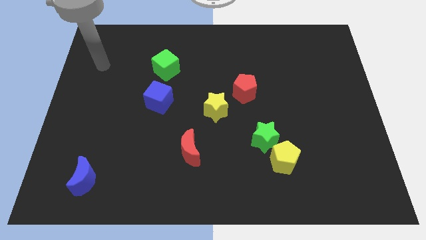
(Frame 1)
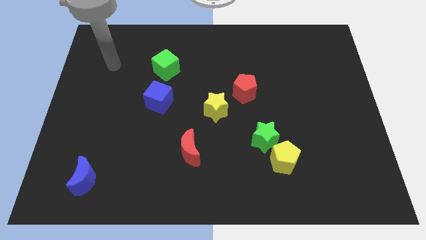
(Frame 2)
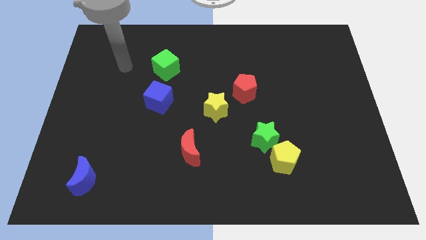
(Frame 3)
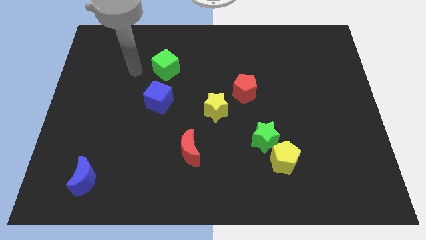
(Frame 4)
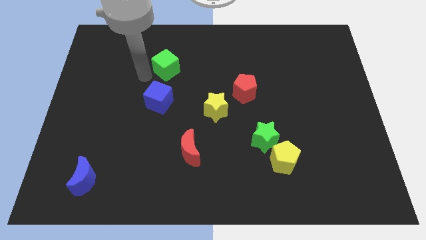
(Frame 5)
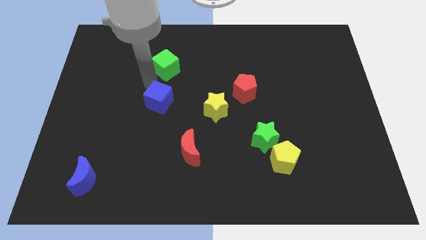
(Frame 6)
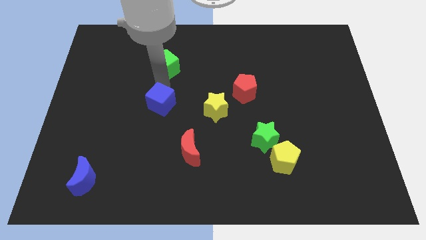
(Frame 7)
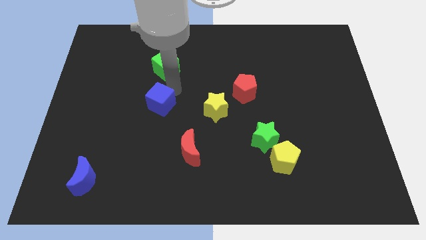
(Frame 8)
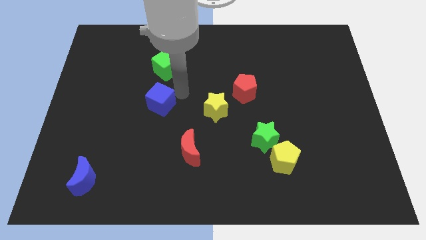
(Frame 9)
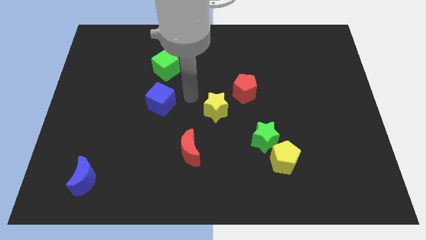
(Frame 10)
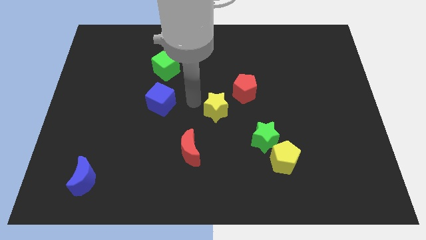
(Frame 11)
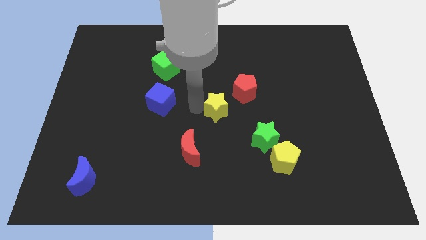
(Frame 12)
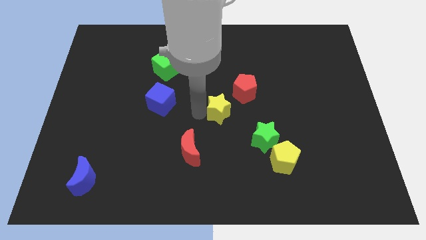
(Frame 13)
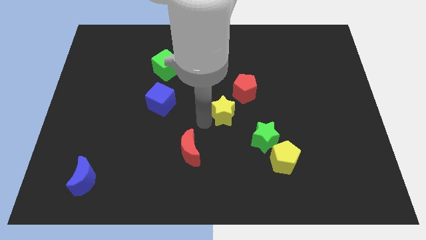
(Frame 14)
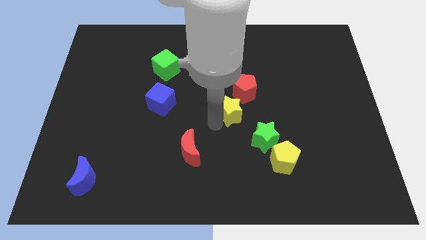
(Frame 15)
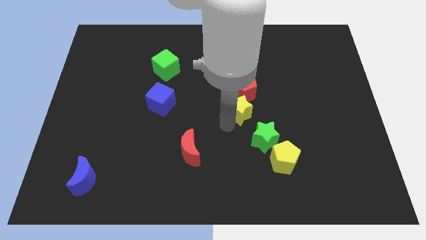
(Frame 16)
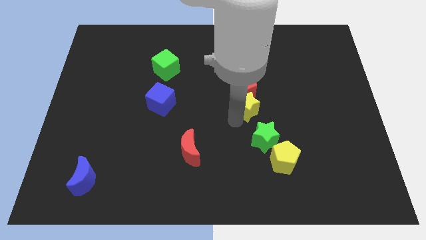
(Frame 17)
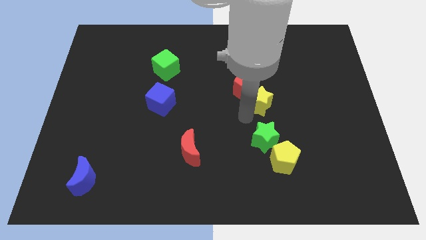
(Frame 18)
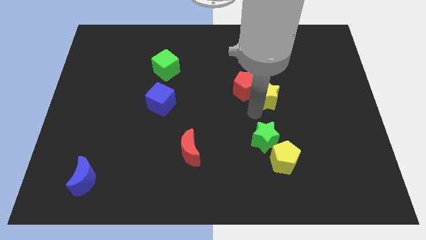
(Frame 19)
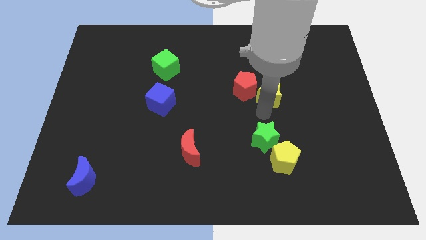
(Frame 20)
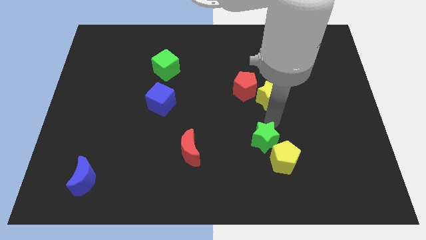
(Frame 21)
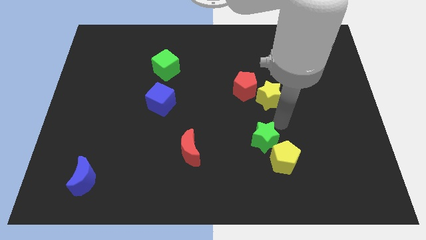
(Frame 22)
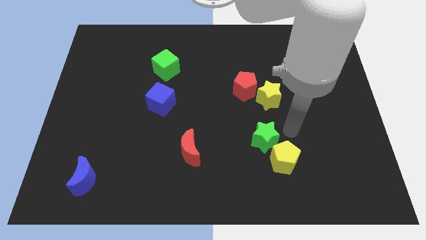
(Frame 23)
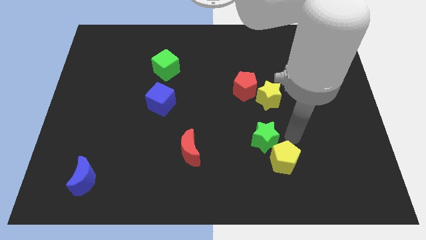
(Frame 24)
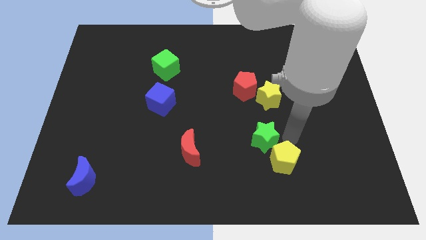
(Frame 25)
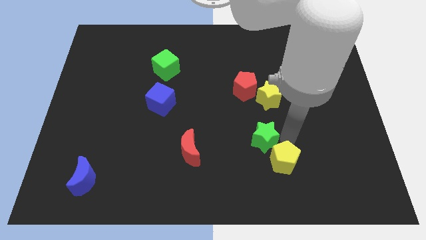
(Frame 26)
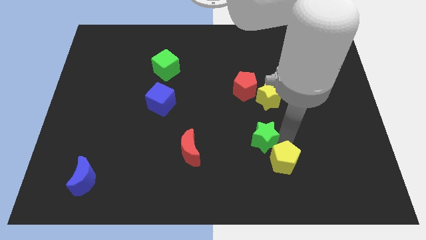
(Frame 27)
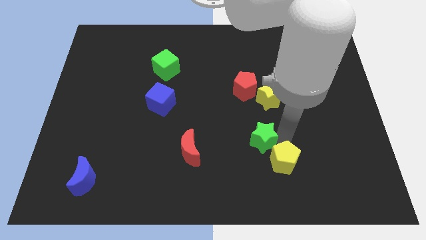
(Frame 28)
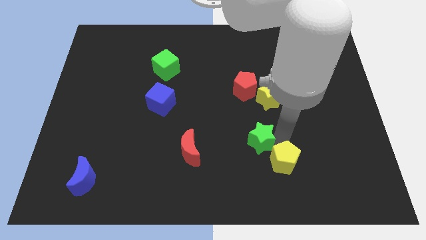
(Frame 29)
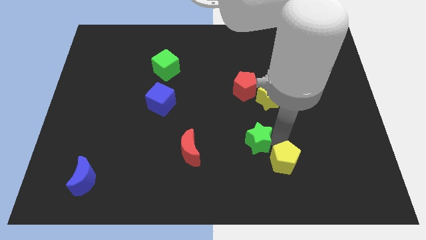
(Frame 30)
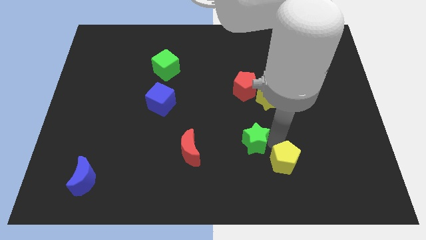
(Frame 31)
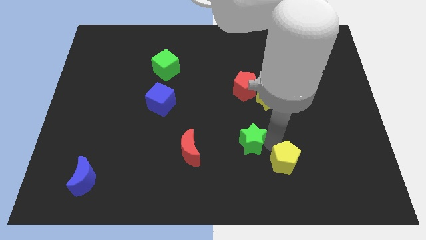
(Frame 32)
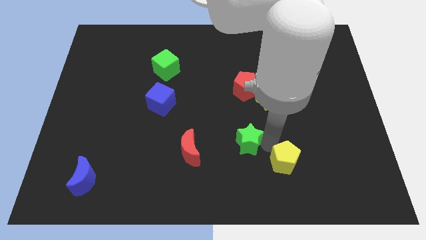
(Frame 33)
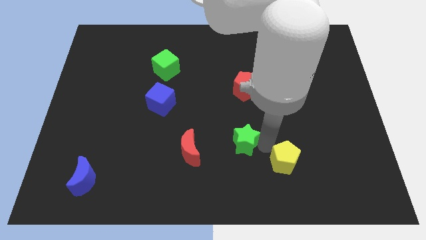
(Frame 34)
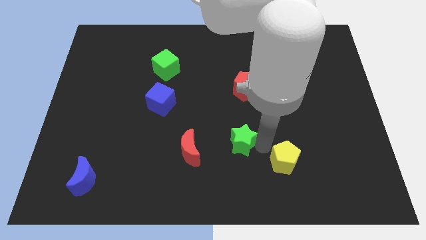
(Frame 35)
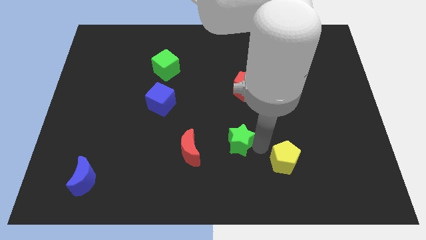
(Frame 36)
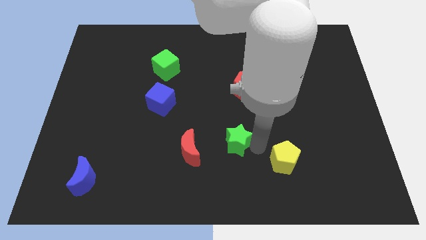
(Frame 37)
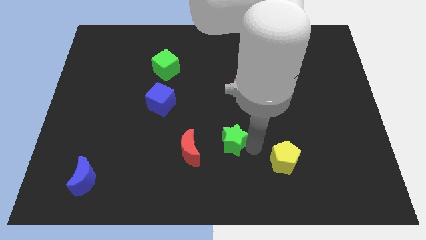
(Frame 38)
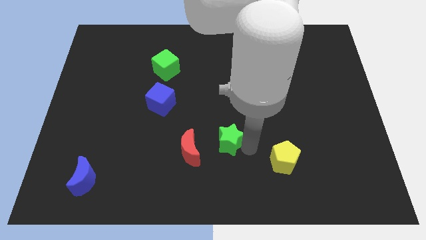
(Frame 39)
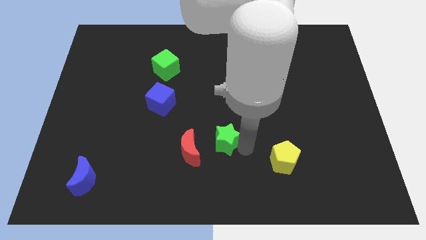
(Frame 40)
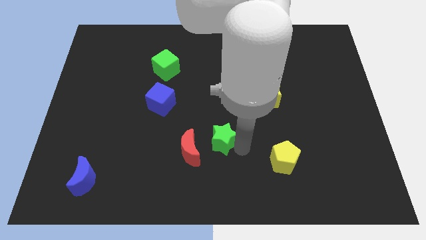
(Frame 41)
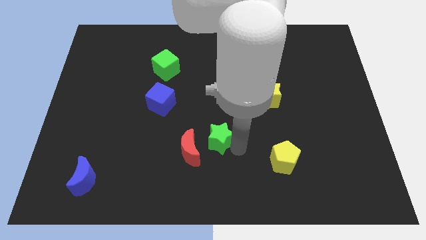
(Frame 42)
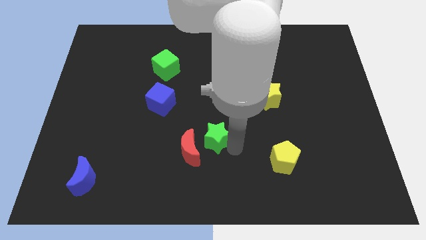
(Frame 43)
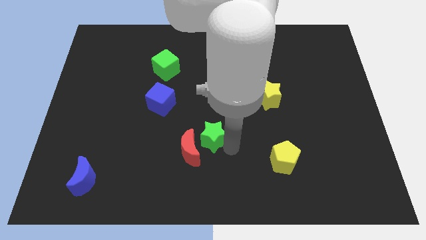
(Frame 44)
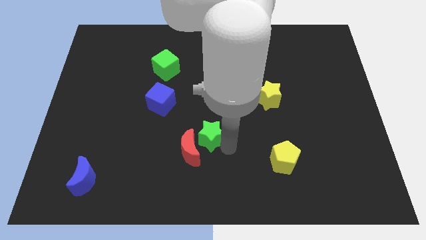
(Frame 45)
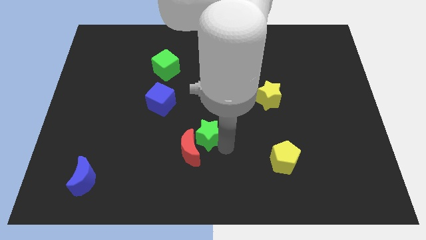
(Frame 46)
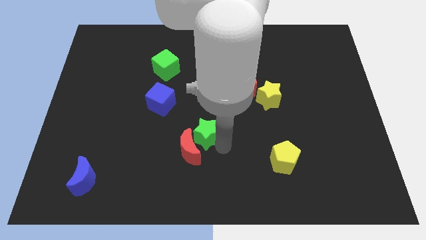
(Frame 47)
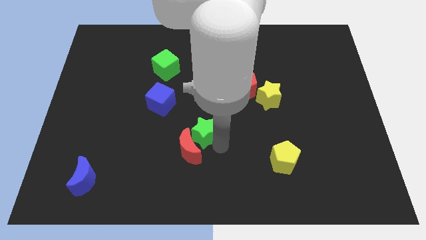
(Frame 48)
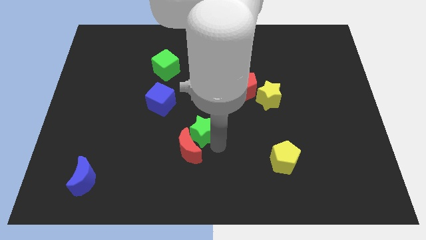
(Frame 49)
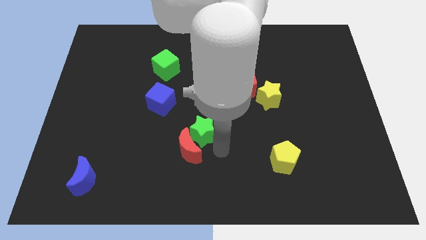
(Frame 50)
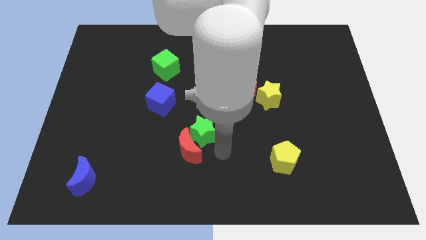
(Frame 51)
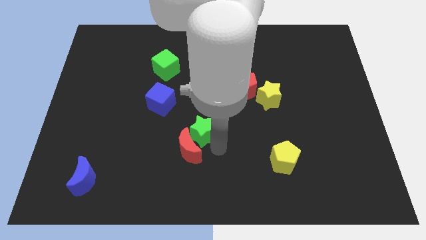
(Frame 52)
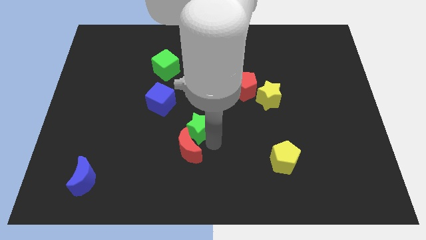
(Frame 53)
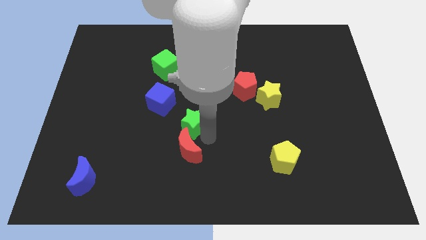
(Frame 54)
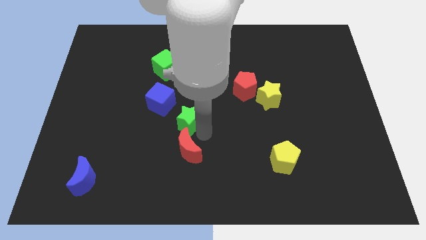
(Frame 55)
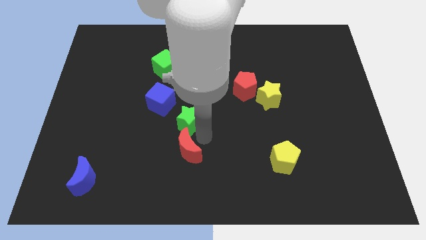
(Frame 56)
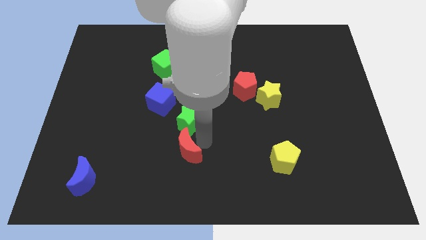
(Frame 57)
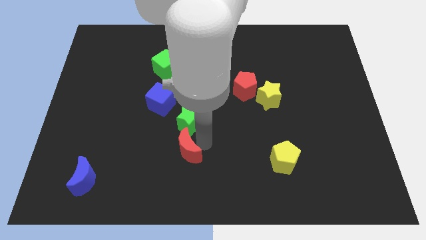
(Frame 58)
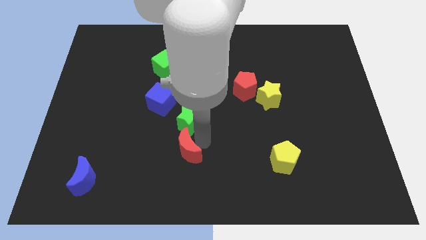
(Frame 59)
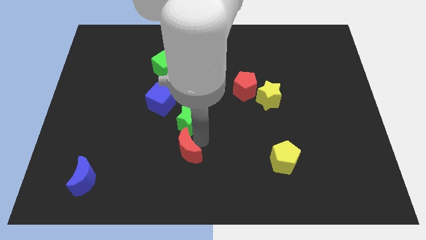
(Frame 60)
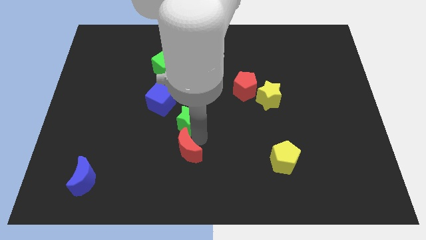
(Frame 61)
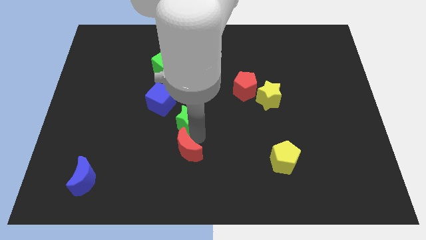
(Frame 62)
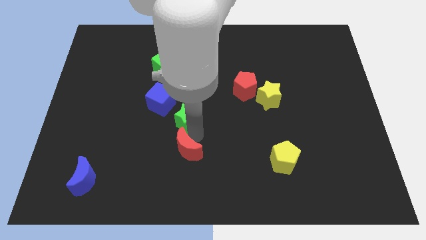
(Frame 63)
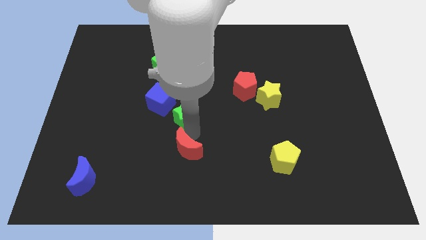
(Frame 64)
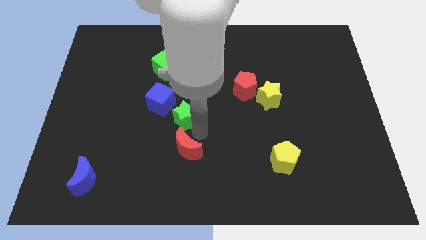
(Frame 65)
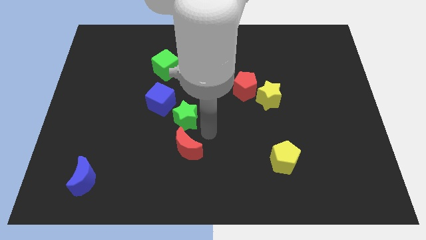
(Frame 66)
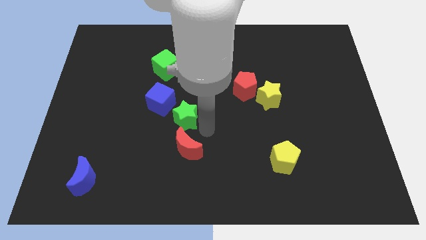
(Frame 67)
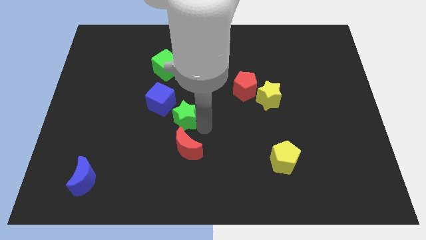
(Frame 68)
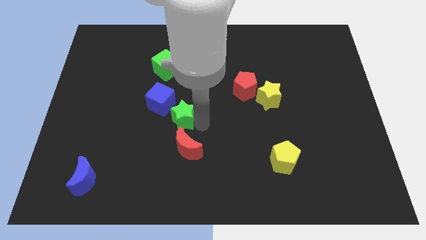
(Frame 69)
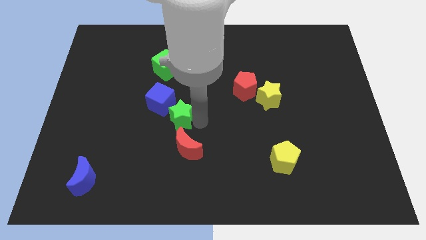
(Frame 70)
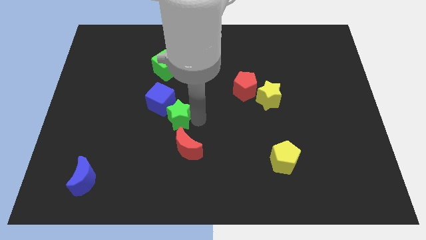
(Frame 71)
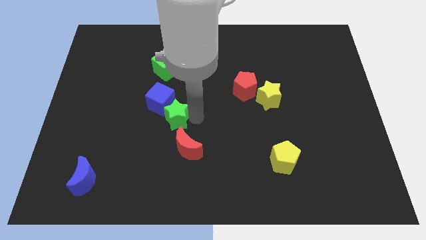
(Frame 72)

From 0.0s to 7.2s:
move the green star towards the blue cube
